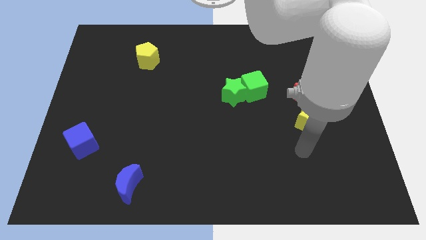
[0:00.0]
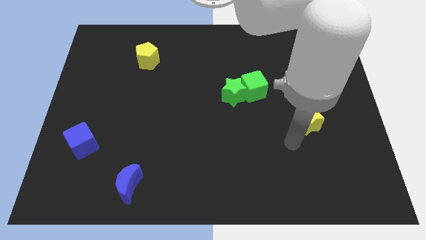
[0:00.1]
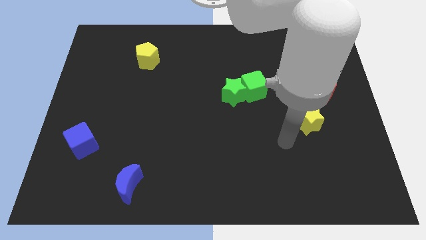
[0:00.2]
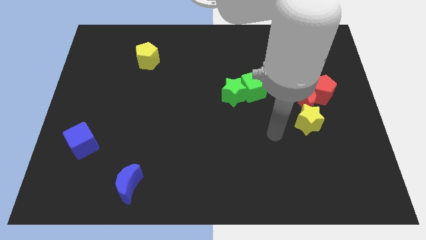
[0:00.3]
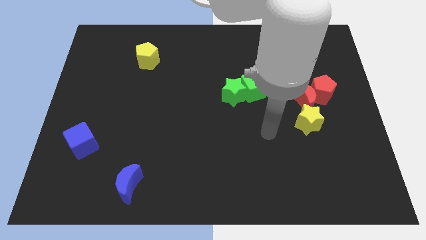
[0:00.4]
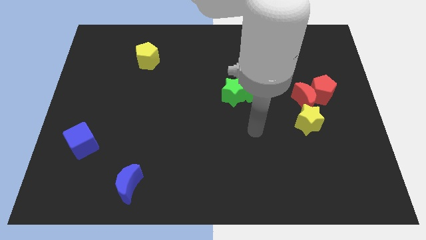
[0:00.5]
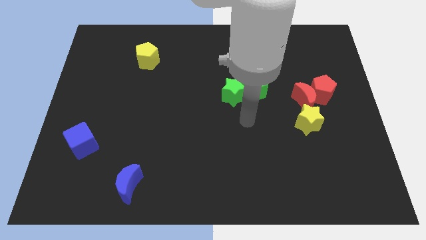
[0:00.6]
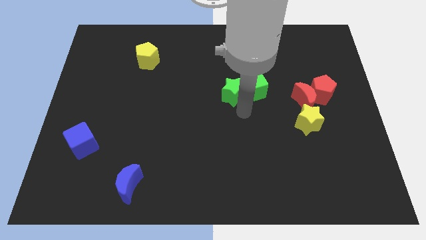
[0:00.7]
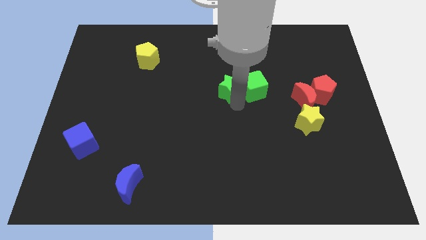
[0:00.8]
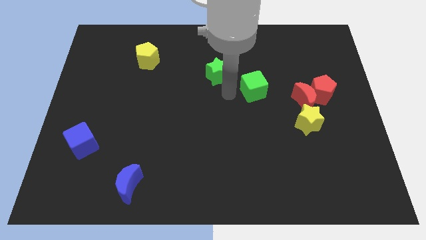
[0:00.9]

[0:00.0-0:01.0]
move the green cube away from the green star

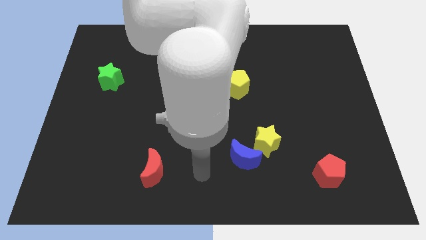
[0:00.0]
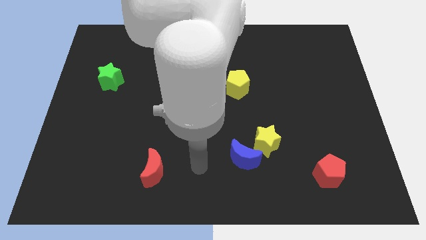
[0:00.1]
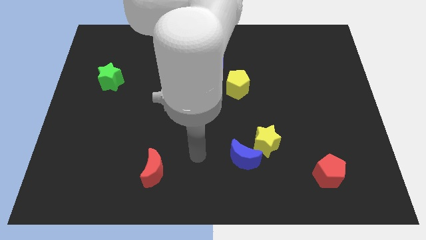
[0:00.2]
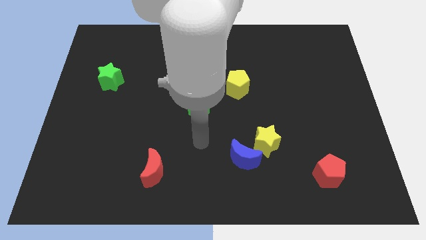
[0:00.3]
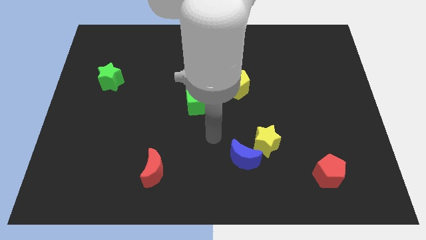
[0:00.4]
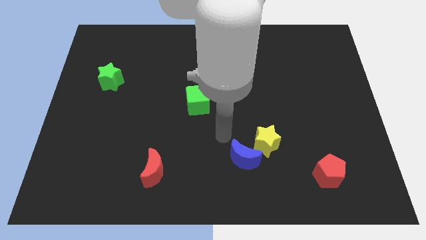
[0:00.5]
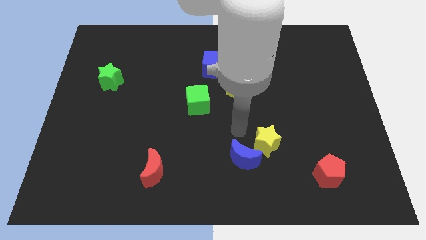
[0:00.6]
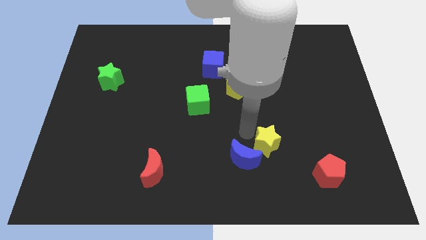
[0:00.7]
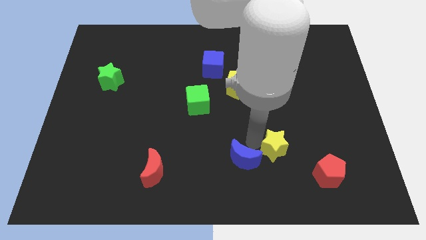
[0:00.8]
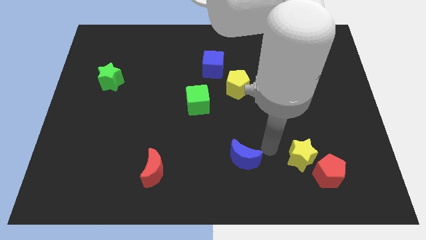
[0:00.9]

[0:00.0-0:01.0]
move the blue moon away from the yellow star

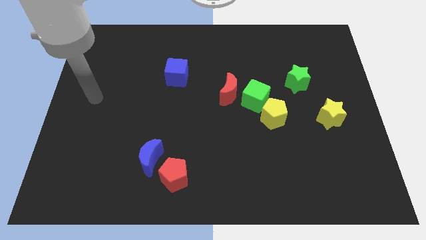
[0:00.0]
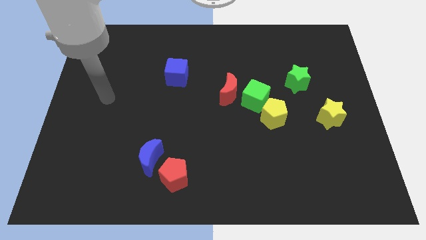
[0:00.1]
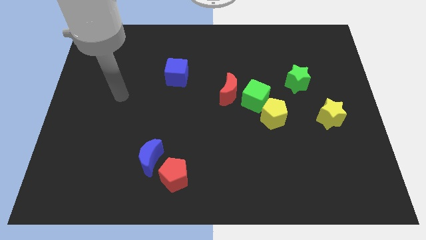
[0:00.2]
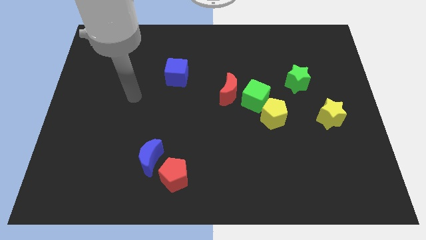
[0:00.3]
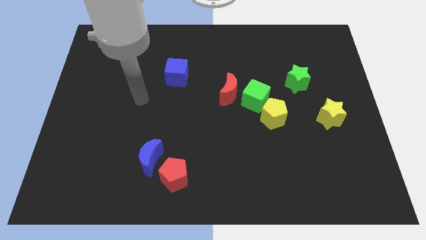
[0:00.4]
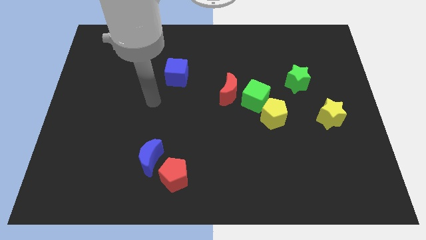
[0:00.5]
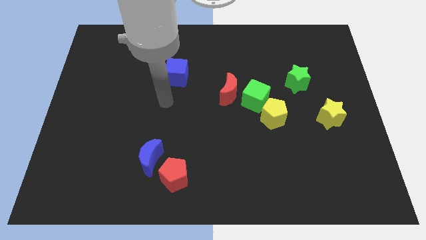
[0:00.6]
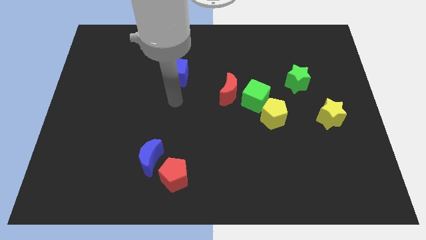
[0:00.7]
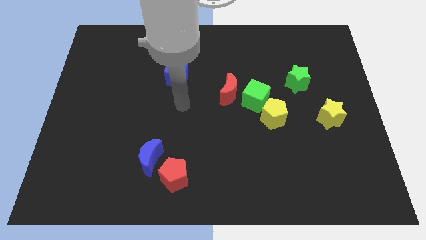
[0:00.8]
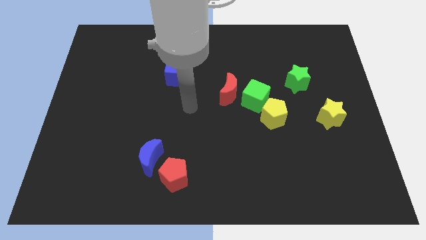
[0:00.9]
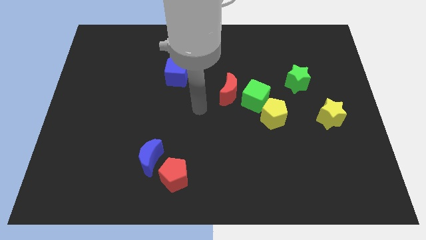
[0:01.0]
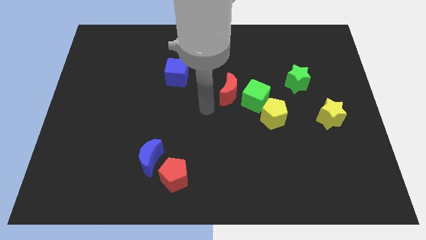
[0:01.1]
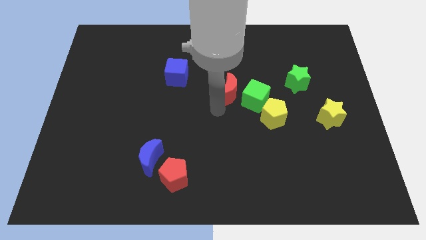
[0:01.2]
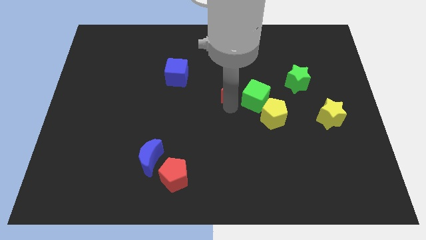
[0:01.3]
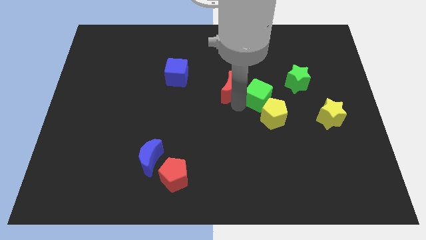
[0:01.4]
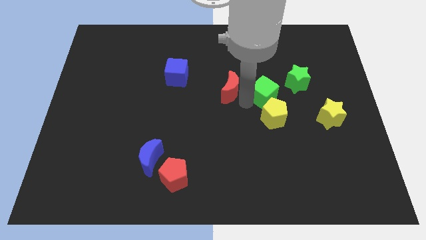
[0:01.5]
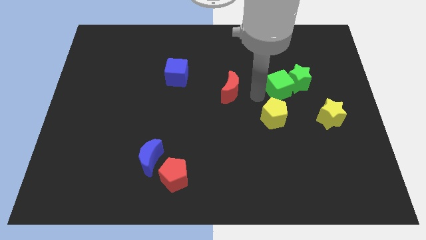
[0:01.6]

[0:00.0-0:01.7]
move the red moon away from the green cube

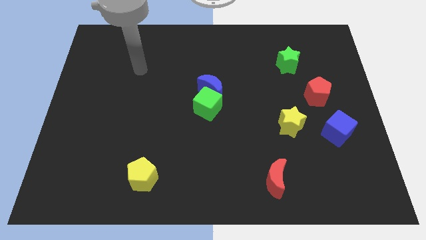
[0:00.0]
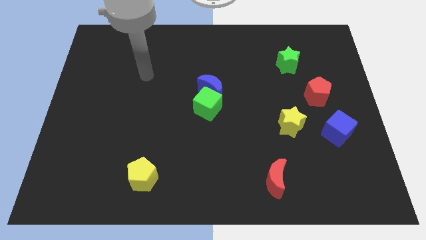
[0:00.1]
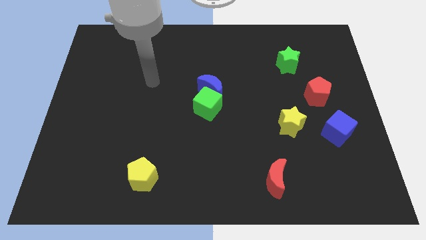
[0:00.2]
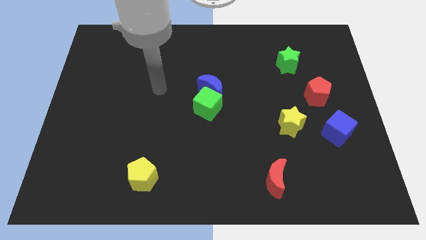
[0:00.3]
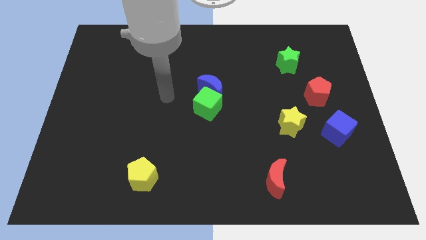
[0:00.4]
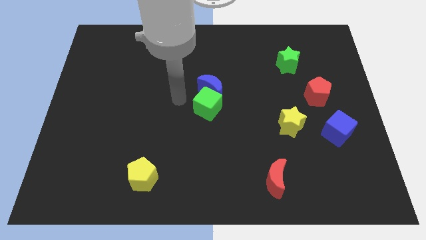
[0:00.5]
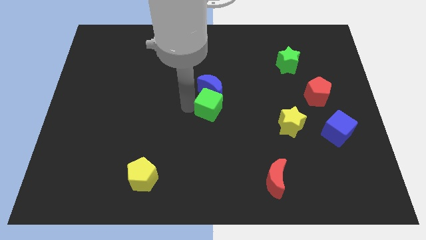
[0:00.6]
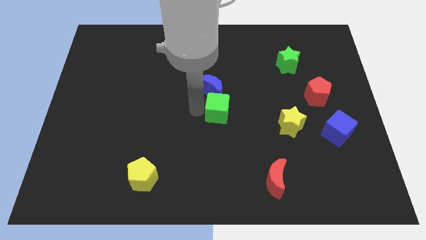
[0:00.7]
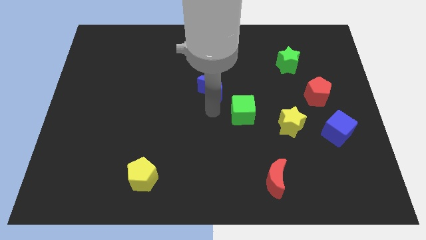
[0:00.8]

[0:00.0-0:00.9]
separate the blue moon from the green cube

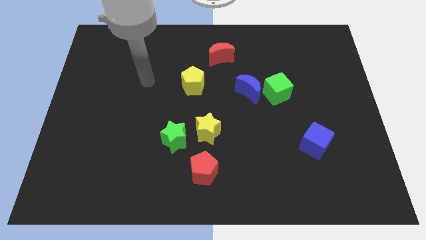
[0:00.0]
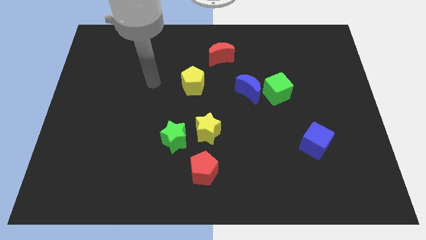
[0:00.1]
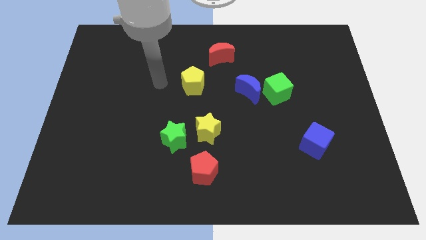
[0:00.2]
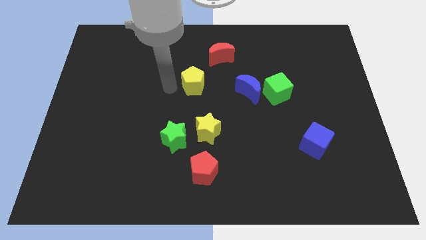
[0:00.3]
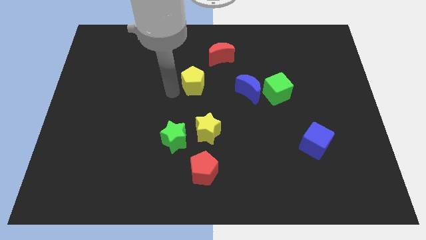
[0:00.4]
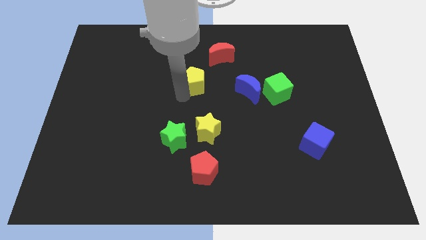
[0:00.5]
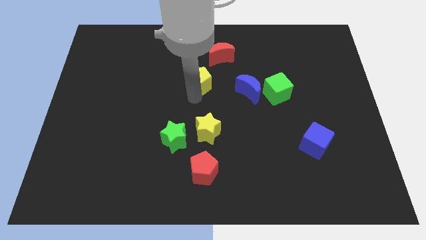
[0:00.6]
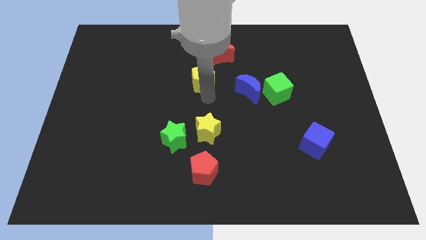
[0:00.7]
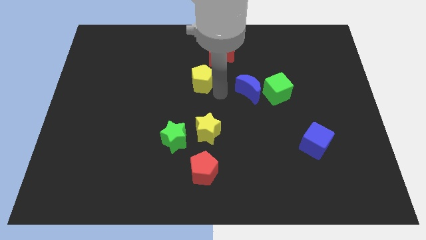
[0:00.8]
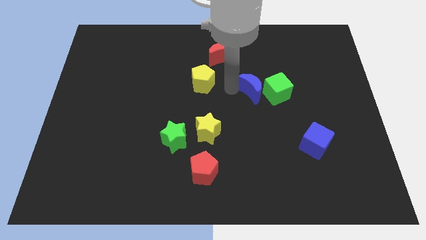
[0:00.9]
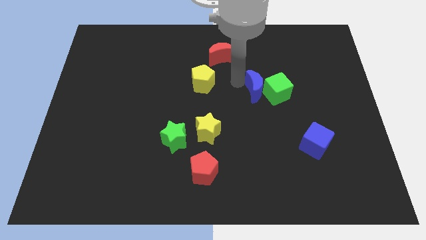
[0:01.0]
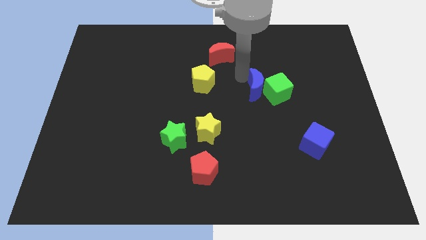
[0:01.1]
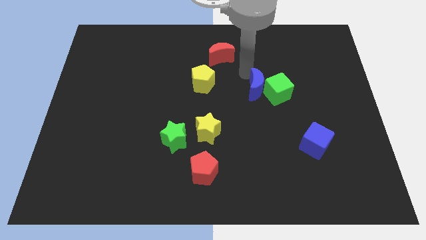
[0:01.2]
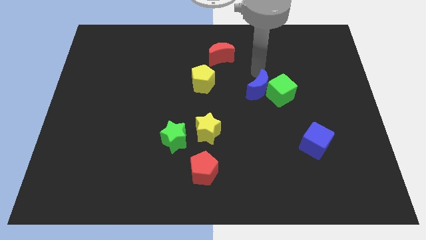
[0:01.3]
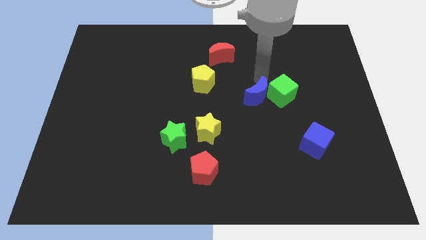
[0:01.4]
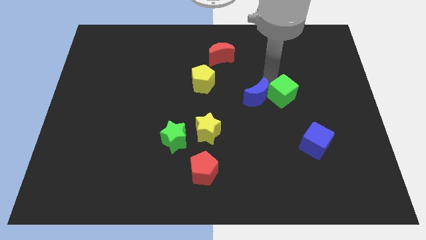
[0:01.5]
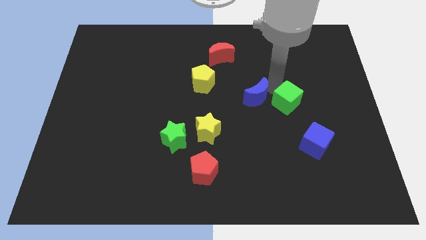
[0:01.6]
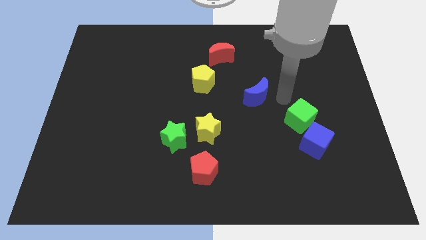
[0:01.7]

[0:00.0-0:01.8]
pull the blue moon apart from the green cube

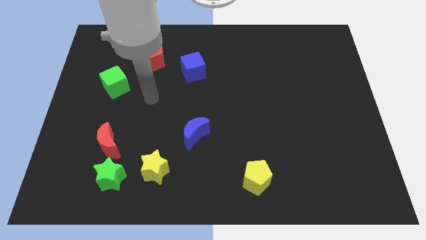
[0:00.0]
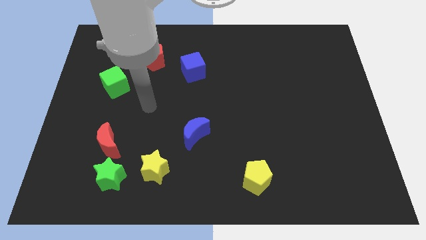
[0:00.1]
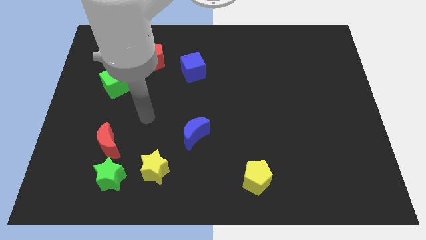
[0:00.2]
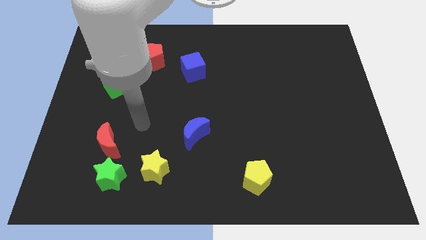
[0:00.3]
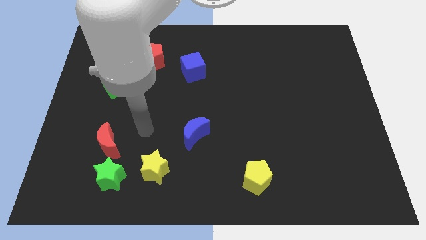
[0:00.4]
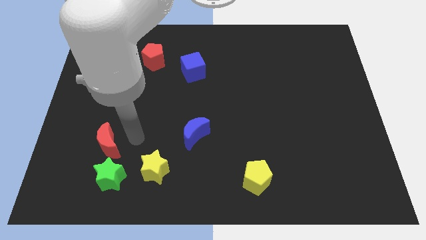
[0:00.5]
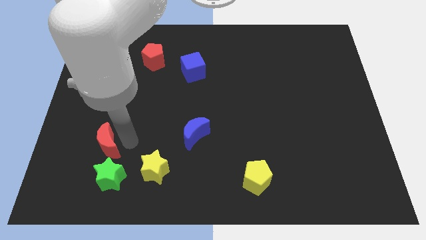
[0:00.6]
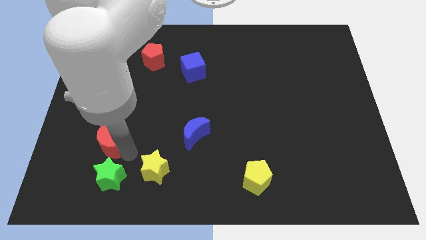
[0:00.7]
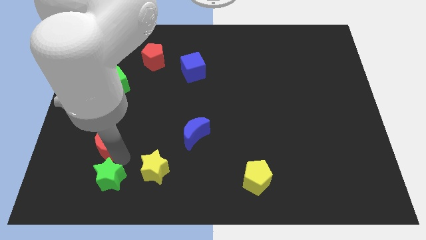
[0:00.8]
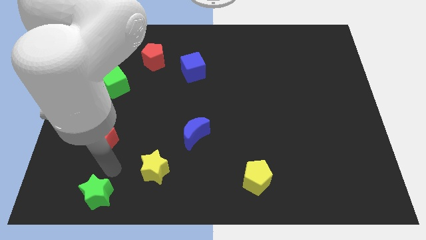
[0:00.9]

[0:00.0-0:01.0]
pull the red moon apart from the green star

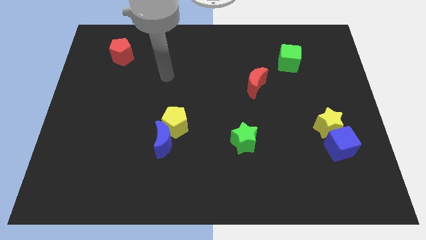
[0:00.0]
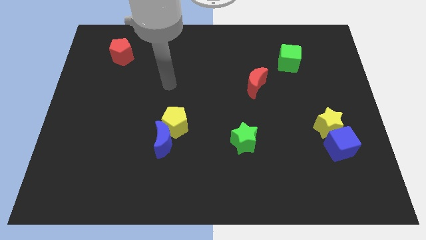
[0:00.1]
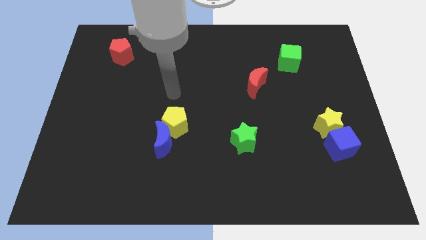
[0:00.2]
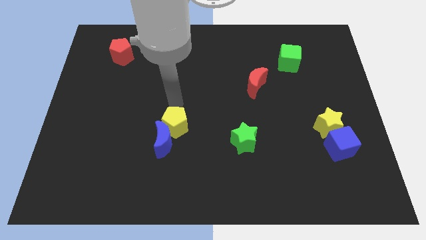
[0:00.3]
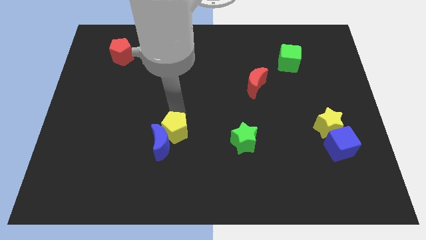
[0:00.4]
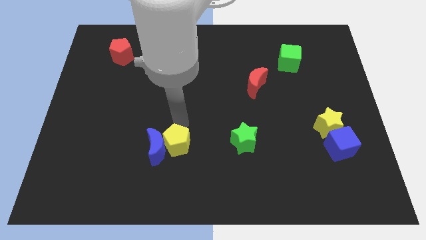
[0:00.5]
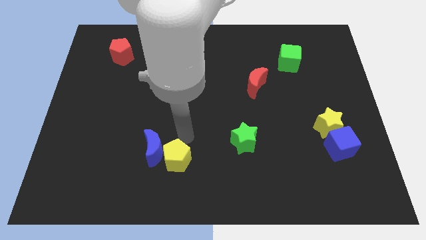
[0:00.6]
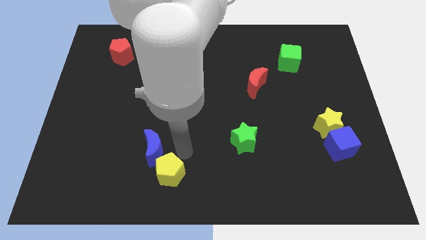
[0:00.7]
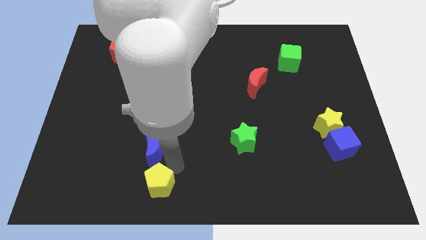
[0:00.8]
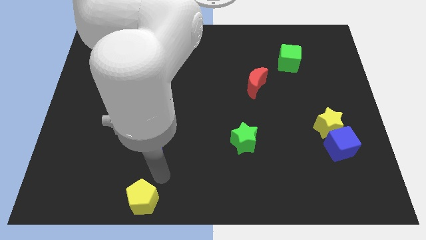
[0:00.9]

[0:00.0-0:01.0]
separate the blue moon from the yellow pentagon

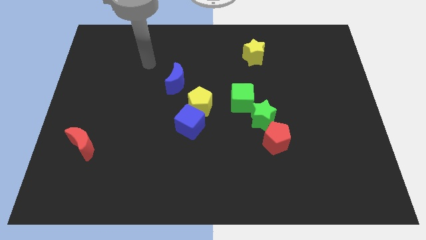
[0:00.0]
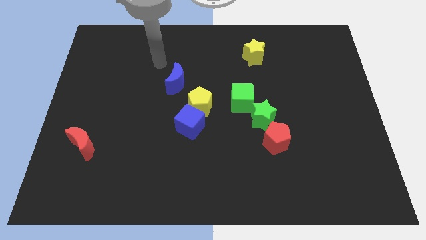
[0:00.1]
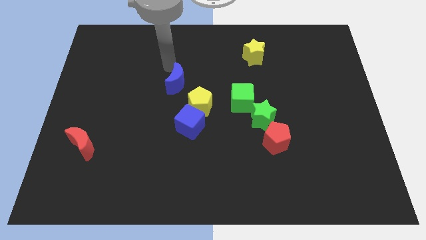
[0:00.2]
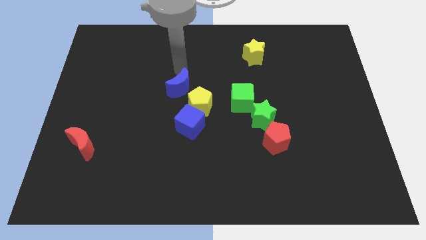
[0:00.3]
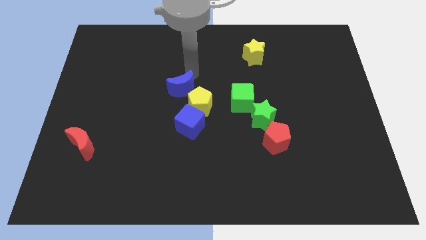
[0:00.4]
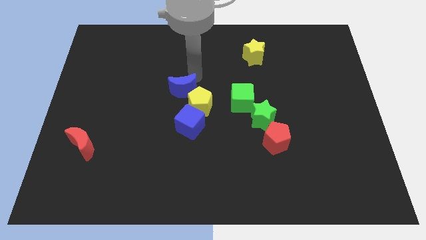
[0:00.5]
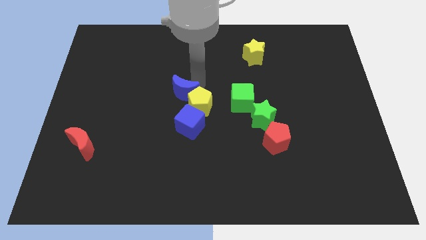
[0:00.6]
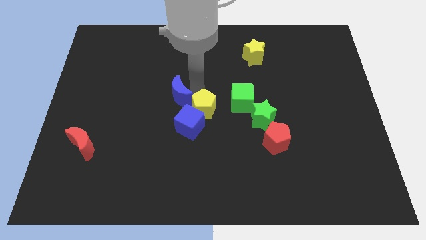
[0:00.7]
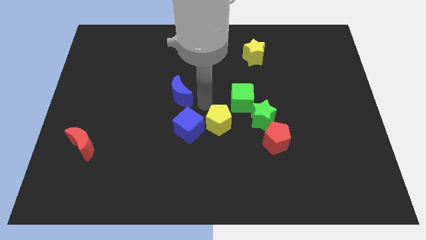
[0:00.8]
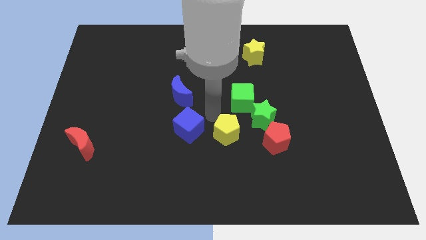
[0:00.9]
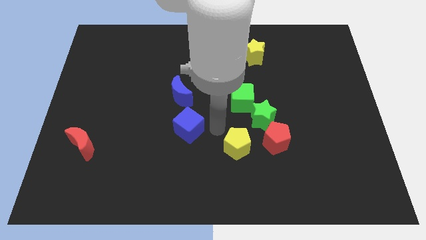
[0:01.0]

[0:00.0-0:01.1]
move the blue cube away from the yellow pentagon
